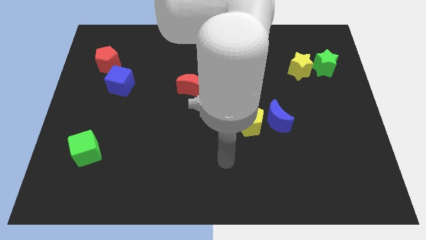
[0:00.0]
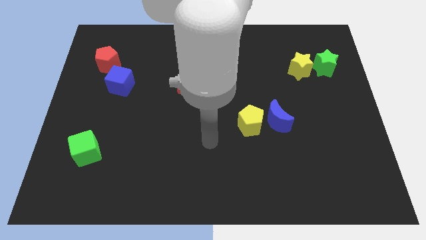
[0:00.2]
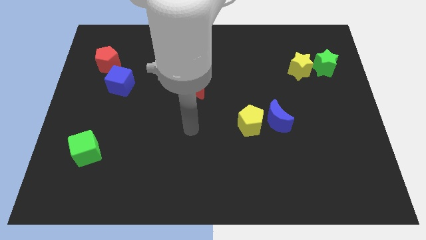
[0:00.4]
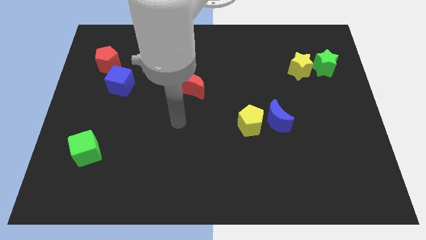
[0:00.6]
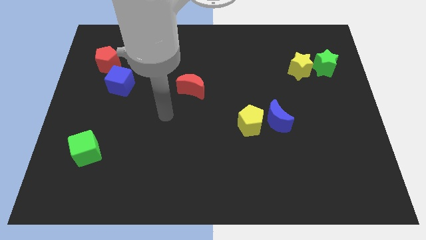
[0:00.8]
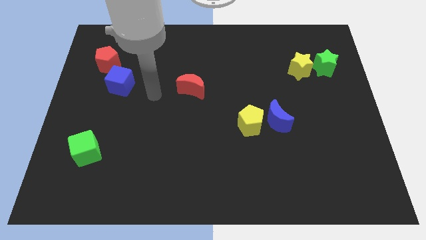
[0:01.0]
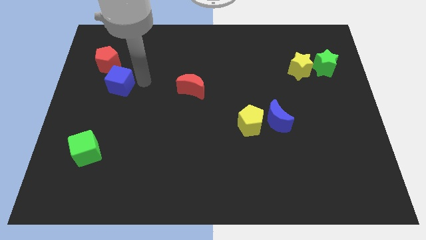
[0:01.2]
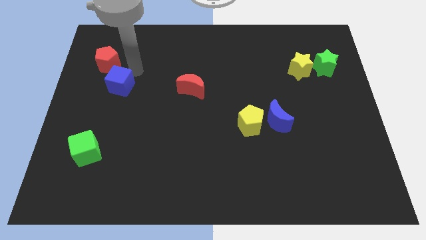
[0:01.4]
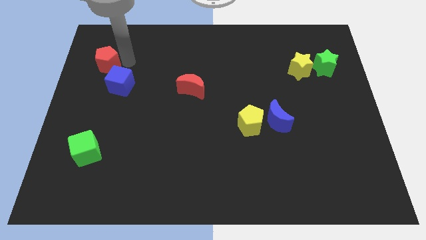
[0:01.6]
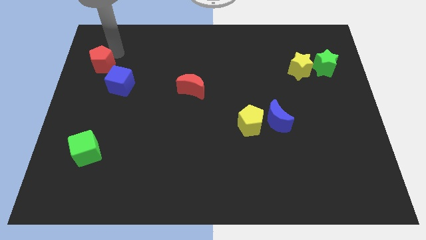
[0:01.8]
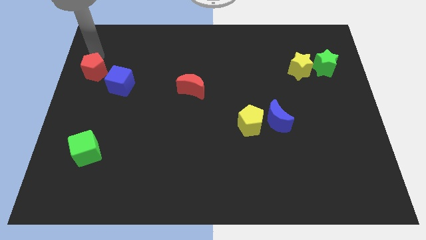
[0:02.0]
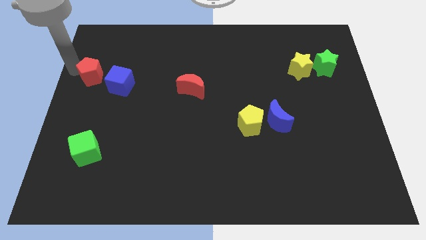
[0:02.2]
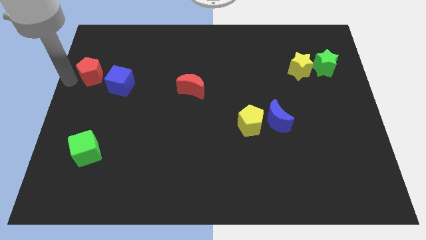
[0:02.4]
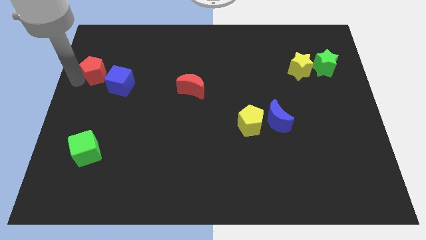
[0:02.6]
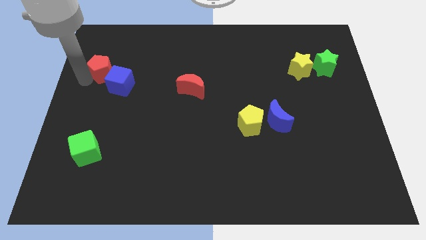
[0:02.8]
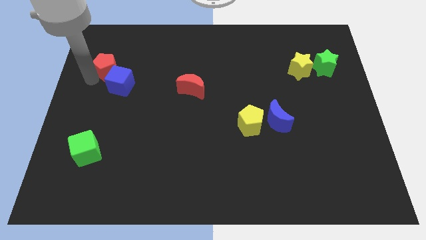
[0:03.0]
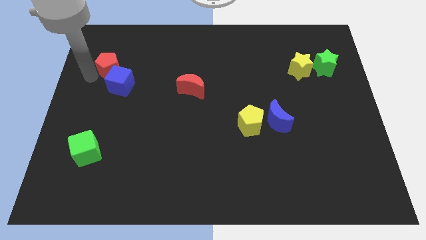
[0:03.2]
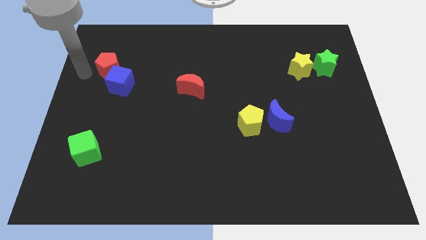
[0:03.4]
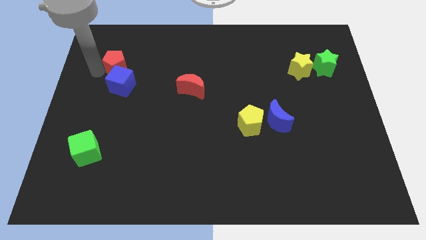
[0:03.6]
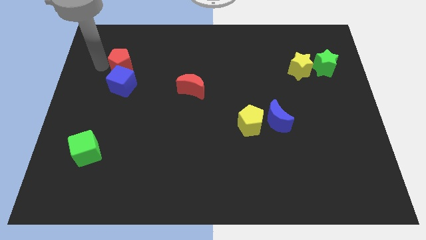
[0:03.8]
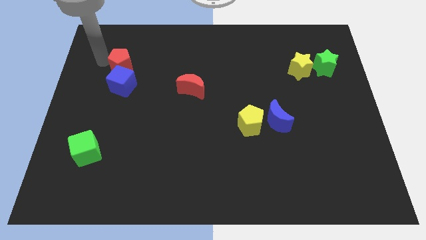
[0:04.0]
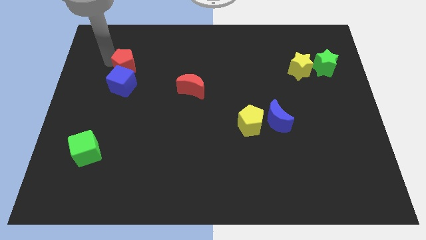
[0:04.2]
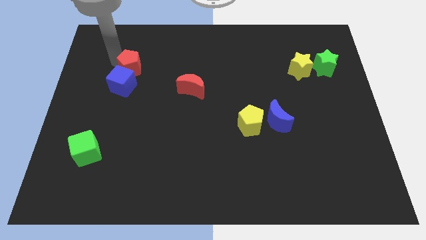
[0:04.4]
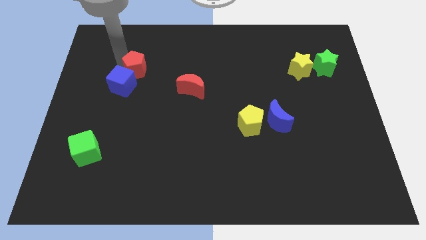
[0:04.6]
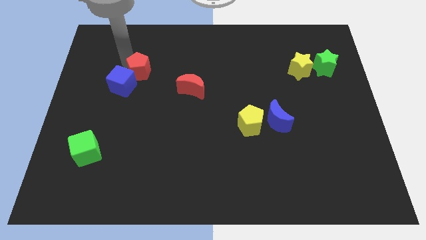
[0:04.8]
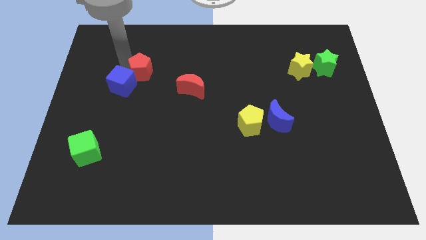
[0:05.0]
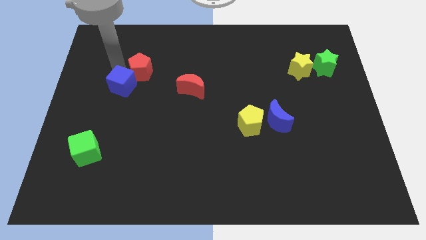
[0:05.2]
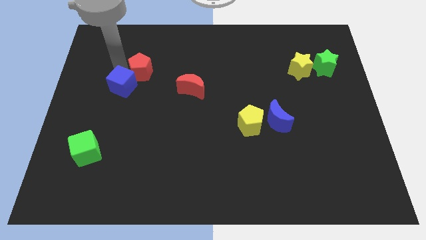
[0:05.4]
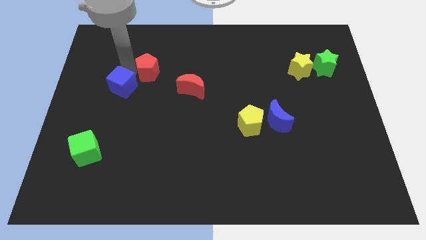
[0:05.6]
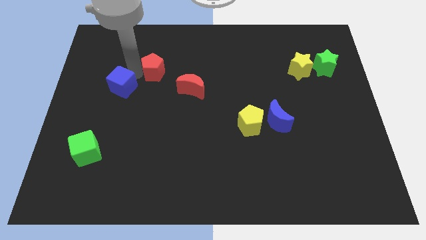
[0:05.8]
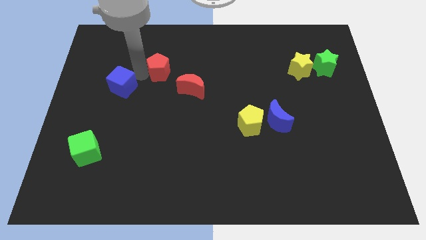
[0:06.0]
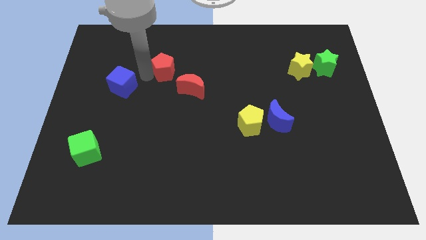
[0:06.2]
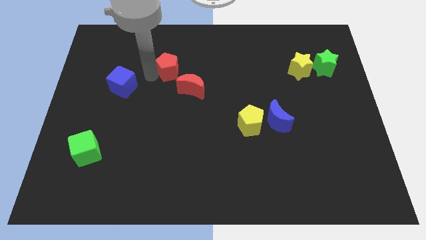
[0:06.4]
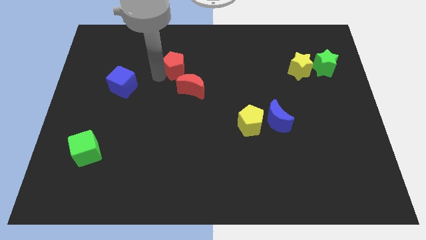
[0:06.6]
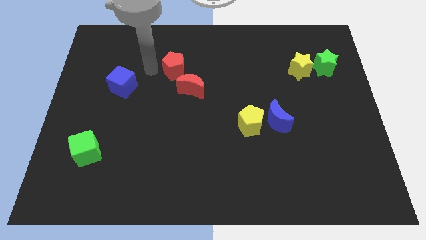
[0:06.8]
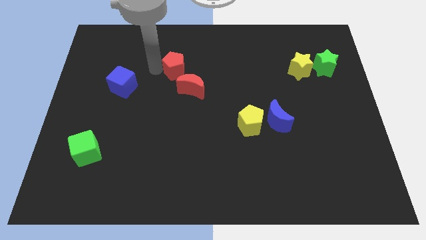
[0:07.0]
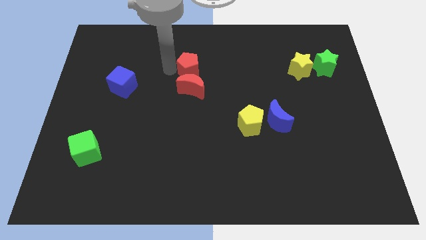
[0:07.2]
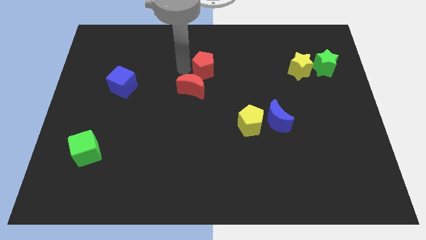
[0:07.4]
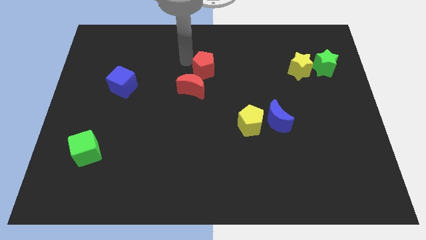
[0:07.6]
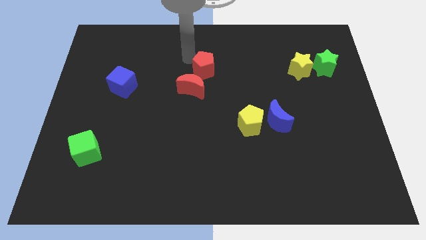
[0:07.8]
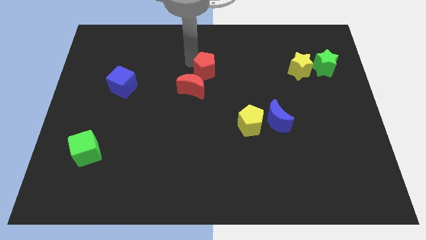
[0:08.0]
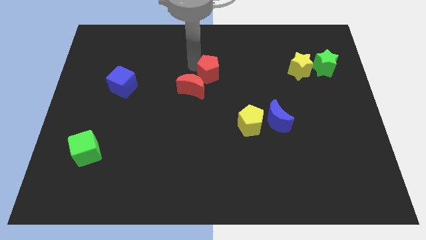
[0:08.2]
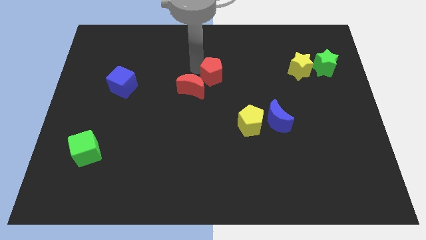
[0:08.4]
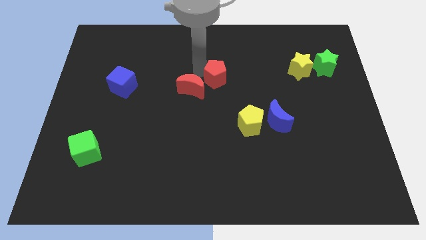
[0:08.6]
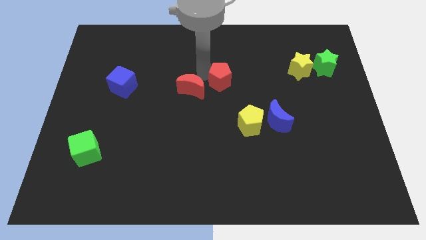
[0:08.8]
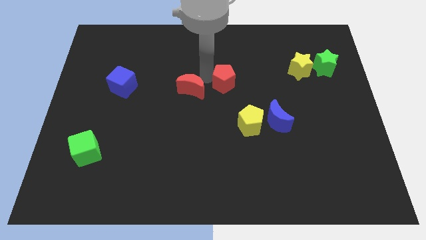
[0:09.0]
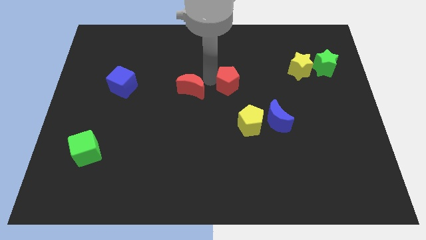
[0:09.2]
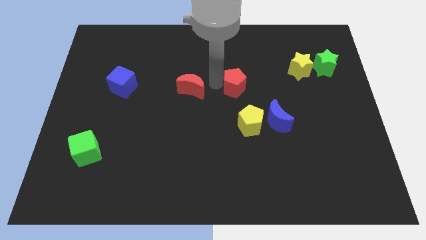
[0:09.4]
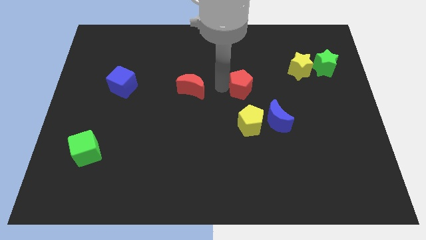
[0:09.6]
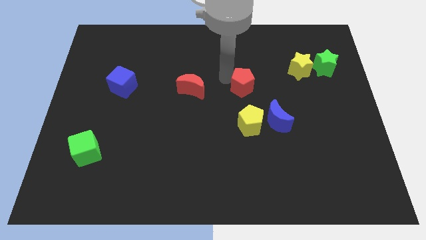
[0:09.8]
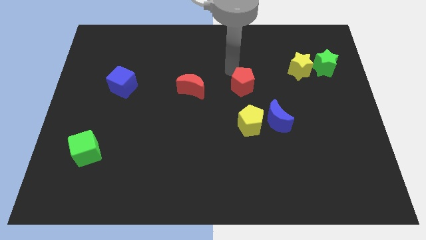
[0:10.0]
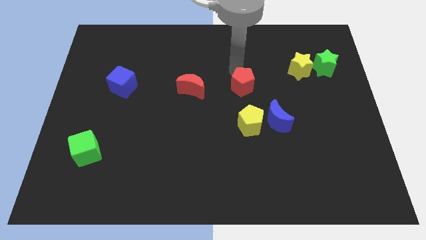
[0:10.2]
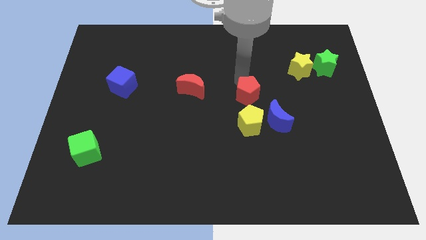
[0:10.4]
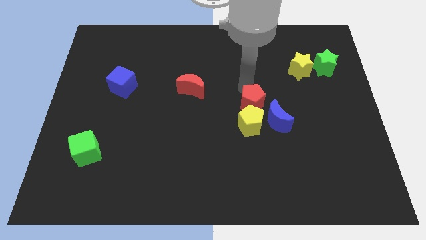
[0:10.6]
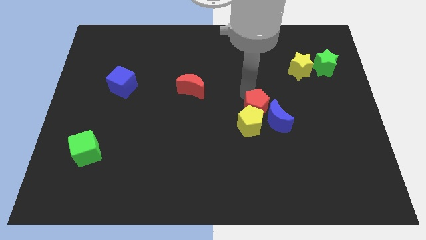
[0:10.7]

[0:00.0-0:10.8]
put the red pentagon to the blue moon

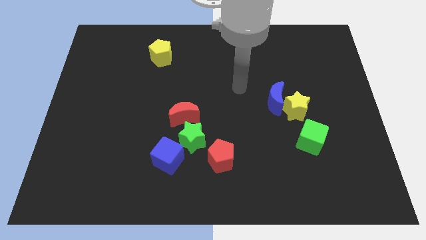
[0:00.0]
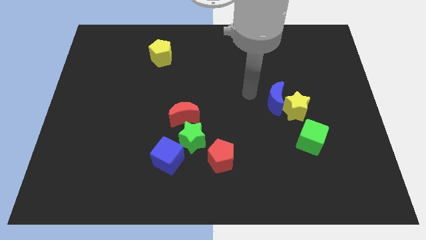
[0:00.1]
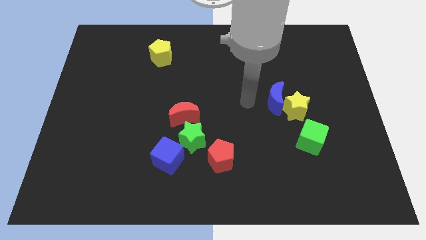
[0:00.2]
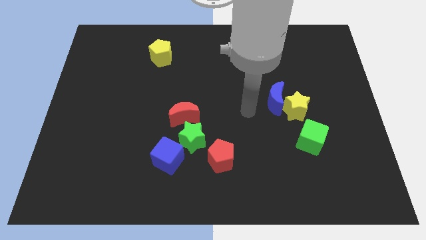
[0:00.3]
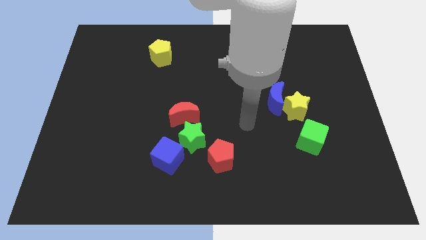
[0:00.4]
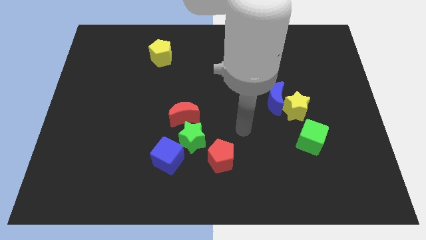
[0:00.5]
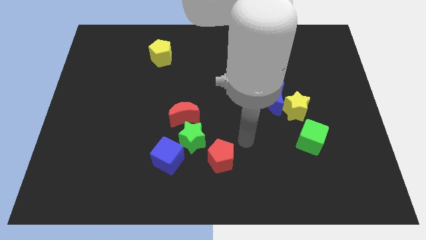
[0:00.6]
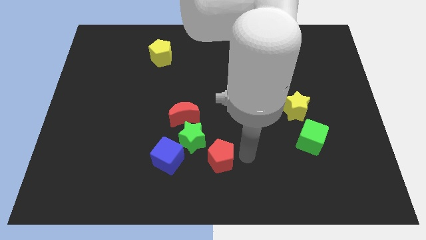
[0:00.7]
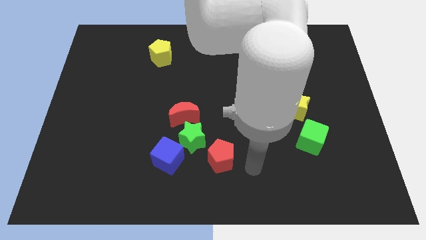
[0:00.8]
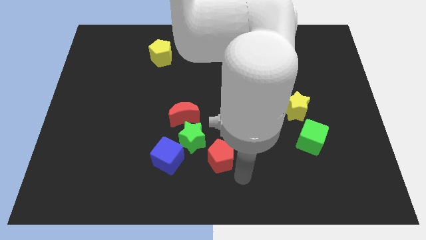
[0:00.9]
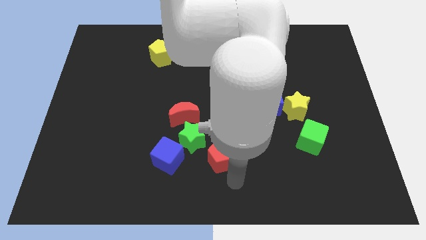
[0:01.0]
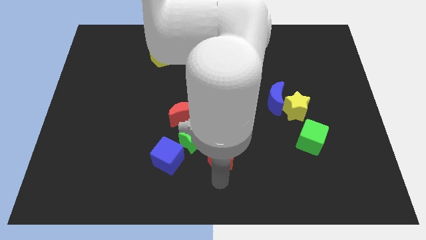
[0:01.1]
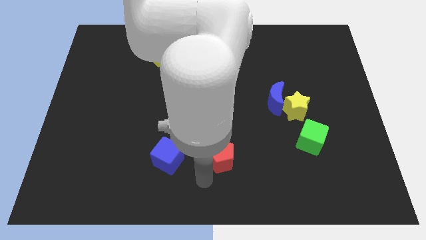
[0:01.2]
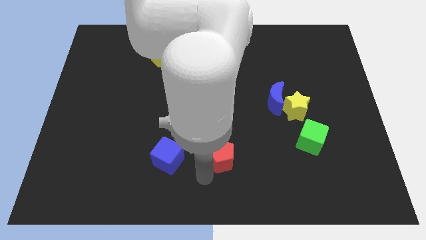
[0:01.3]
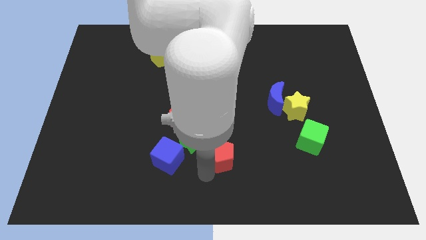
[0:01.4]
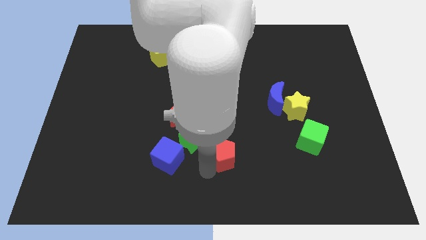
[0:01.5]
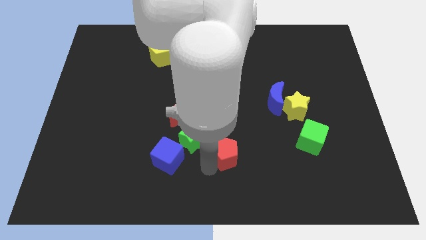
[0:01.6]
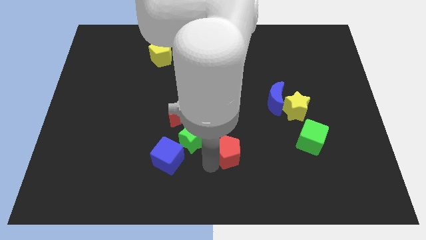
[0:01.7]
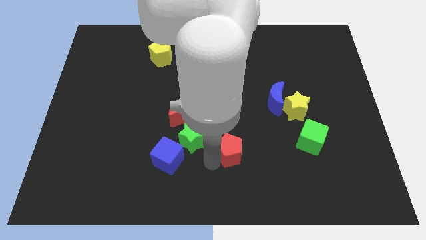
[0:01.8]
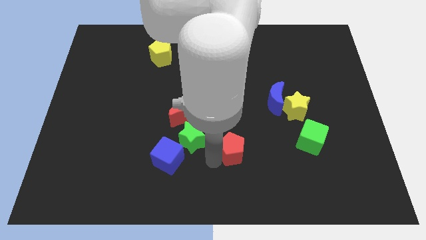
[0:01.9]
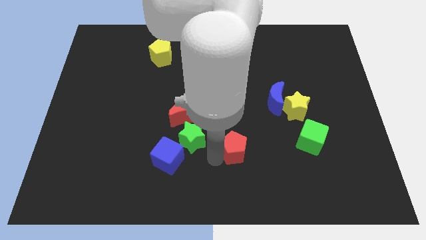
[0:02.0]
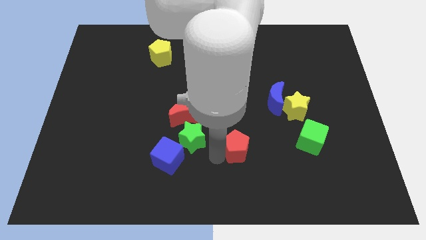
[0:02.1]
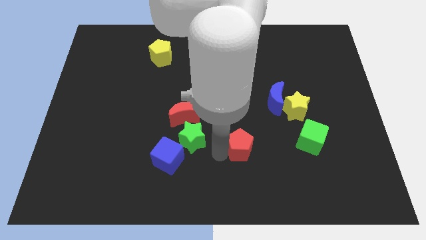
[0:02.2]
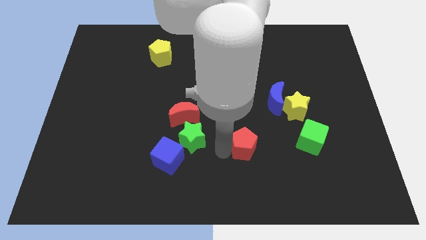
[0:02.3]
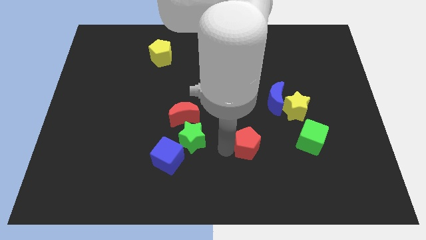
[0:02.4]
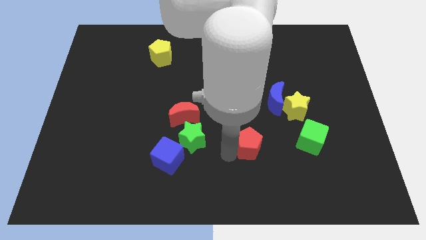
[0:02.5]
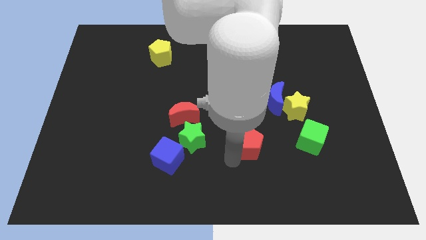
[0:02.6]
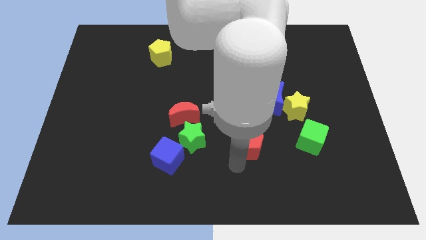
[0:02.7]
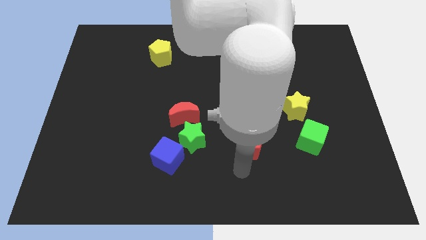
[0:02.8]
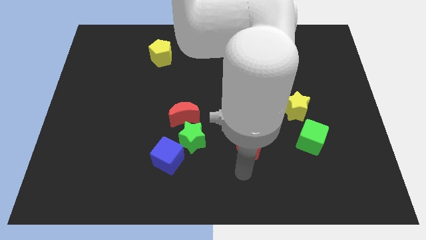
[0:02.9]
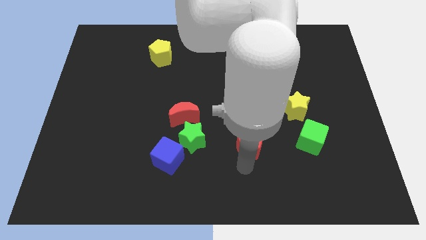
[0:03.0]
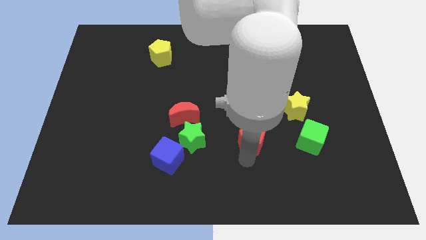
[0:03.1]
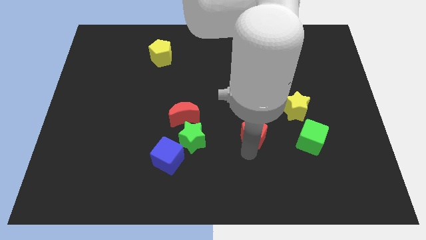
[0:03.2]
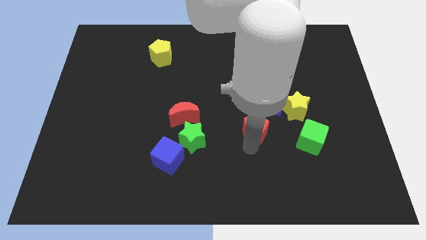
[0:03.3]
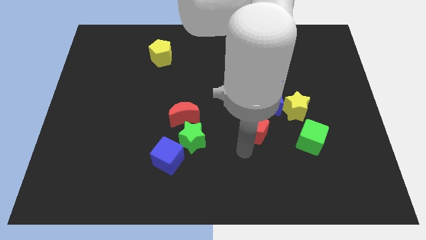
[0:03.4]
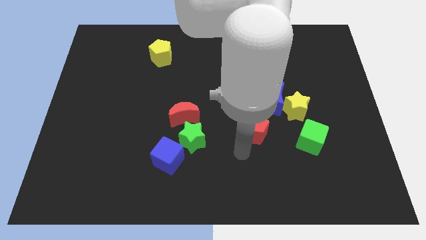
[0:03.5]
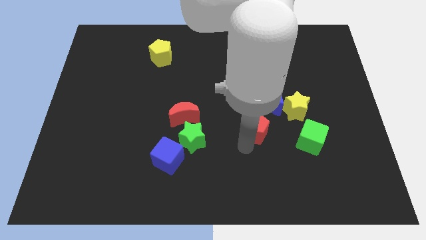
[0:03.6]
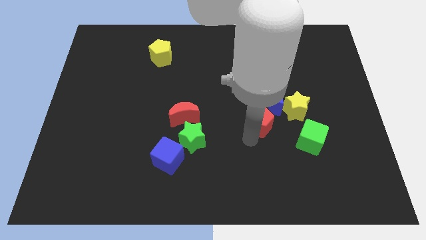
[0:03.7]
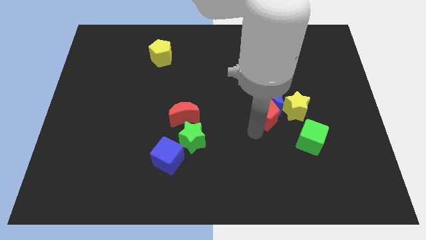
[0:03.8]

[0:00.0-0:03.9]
put the red pentagon close to the blue moon
